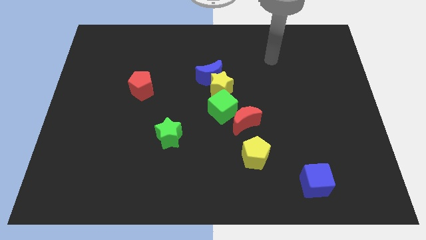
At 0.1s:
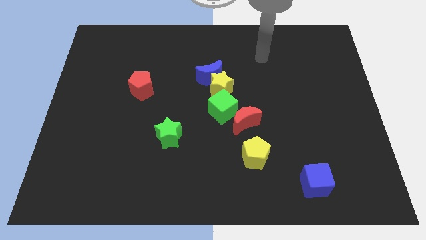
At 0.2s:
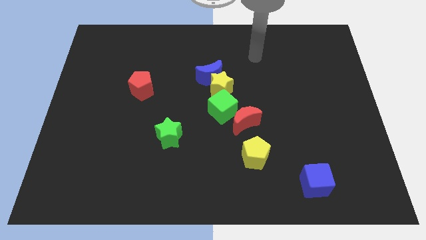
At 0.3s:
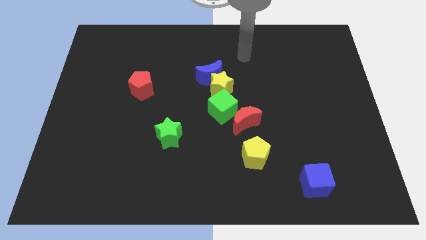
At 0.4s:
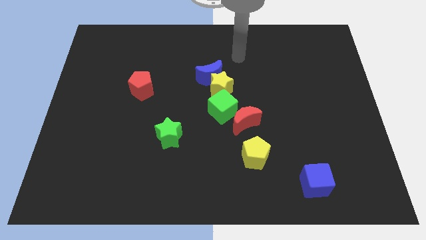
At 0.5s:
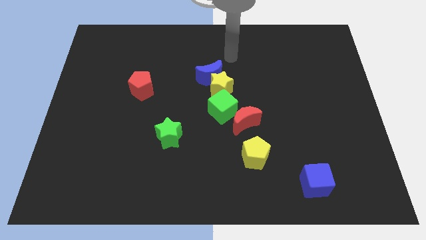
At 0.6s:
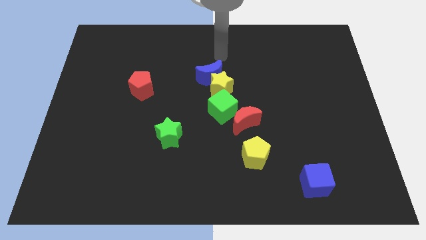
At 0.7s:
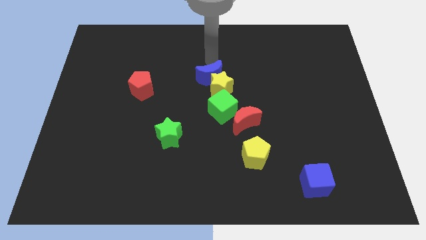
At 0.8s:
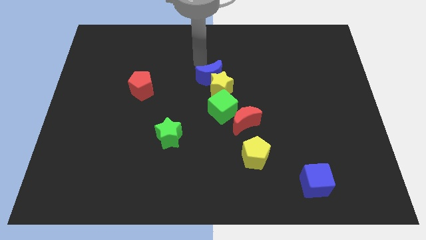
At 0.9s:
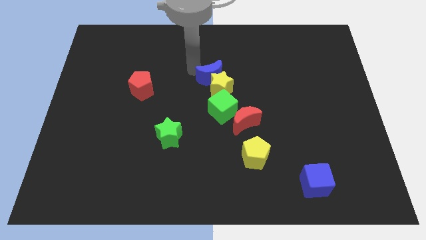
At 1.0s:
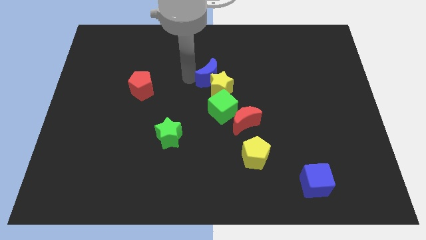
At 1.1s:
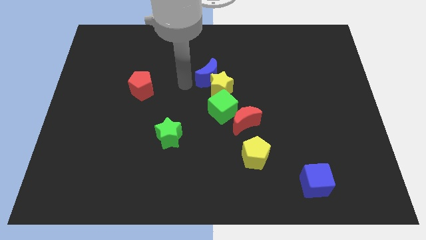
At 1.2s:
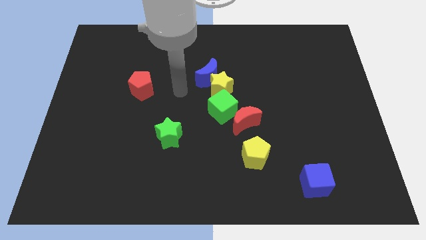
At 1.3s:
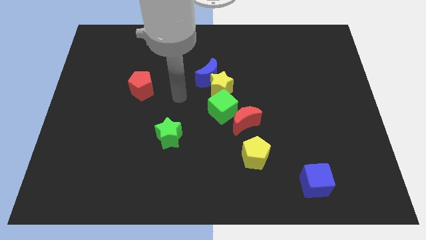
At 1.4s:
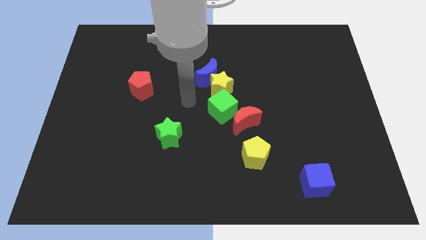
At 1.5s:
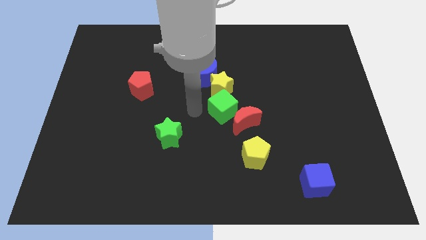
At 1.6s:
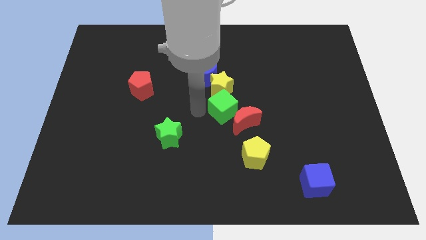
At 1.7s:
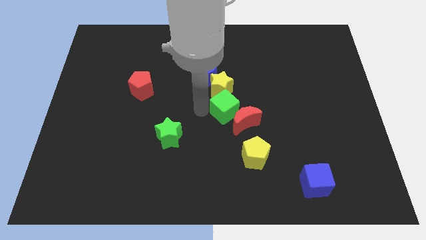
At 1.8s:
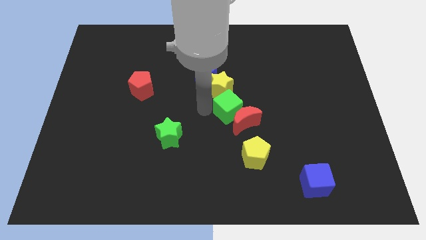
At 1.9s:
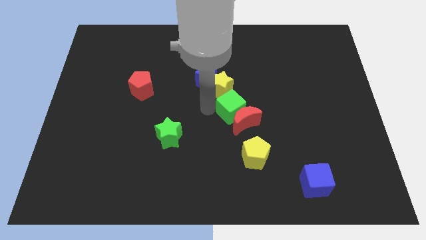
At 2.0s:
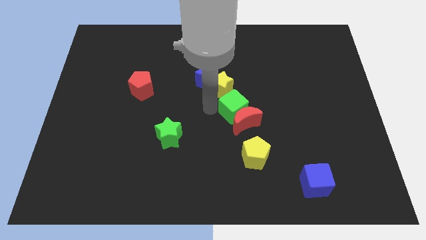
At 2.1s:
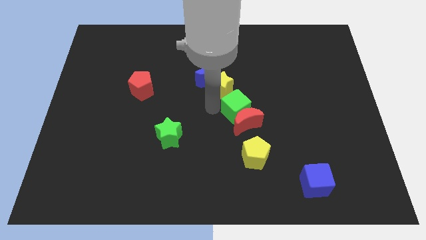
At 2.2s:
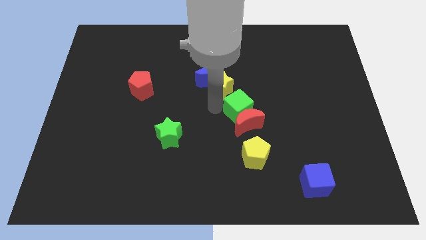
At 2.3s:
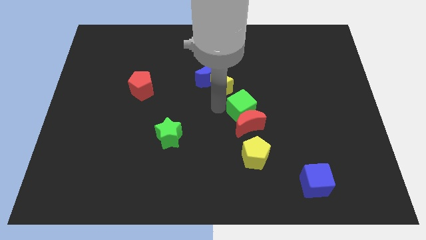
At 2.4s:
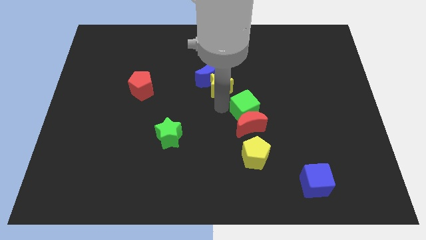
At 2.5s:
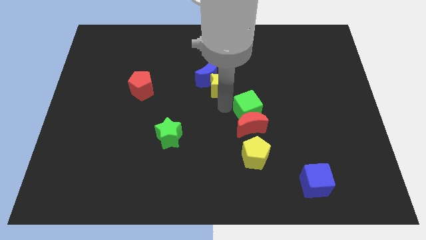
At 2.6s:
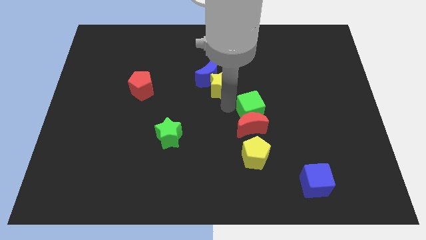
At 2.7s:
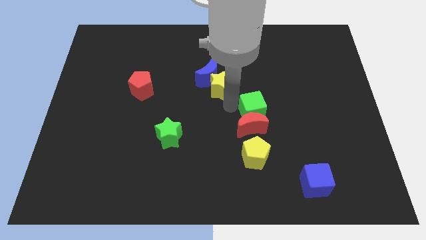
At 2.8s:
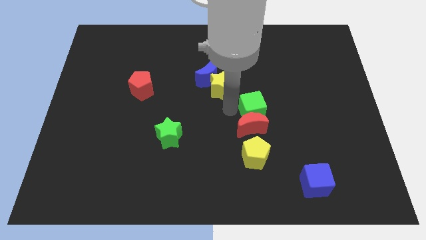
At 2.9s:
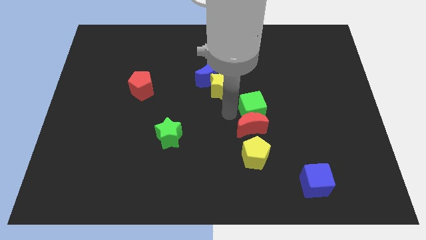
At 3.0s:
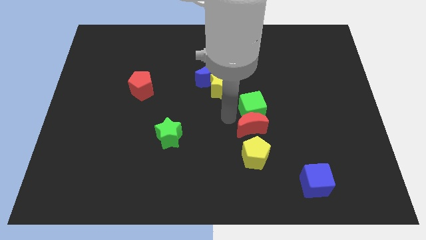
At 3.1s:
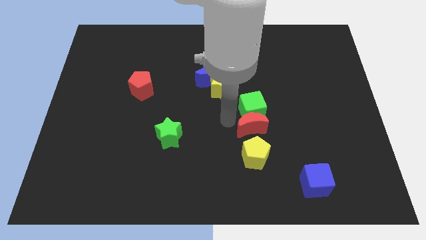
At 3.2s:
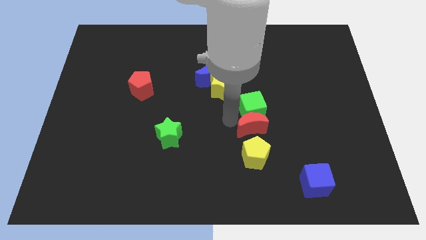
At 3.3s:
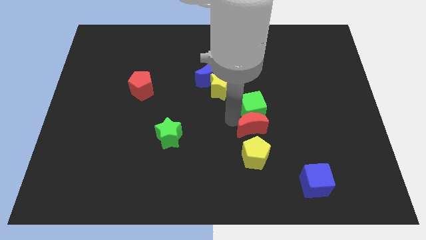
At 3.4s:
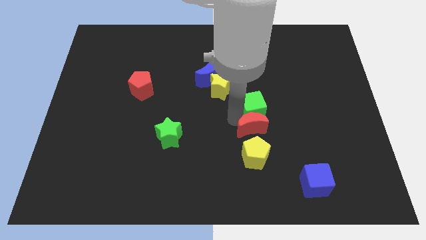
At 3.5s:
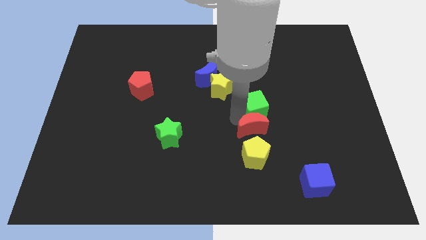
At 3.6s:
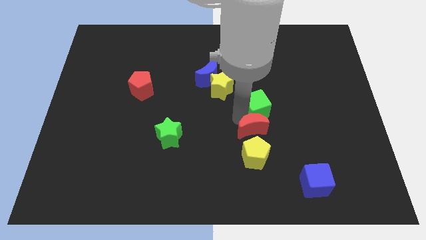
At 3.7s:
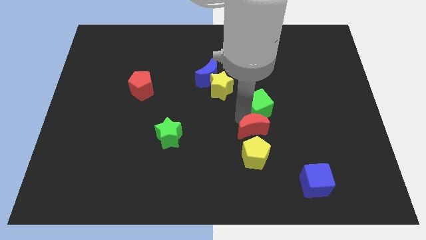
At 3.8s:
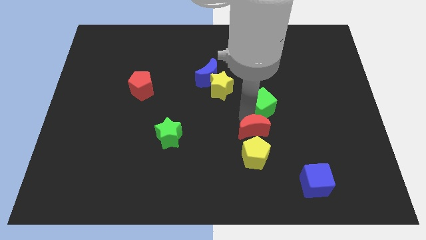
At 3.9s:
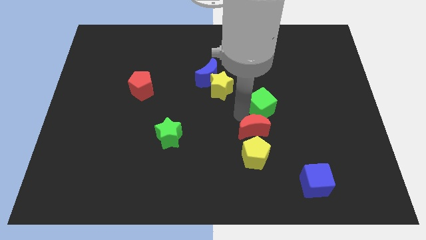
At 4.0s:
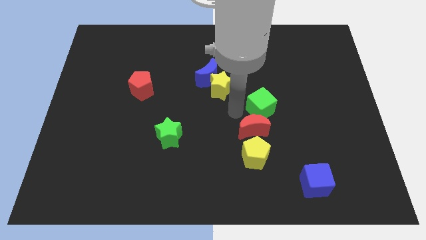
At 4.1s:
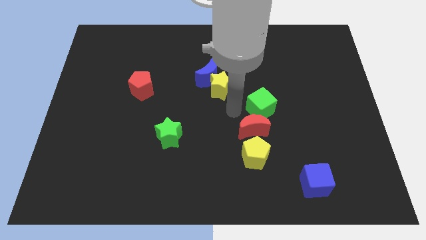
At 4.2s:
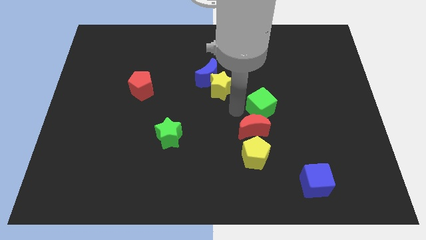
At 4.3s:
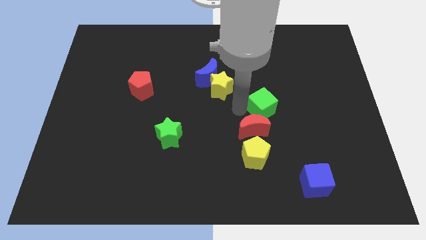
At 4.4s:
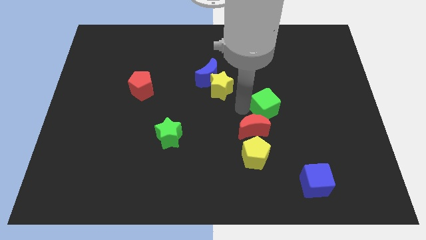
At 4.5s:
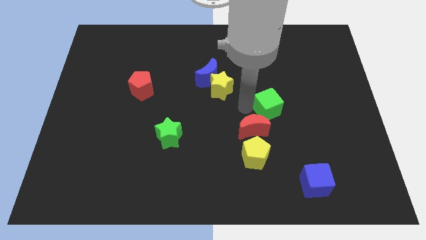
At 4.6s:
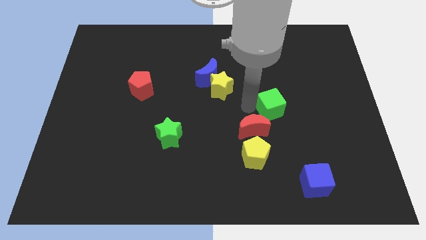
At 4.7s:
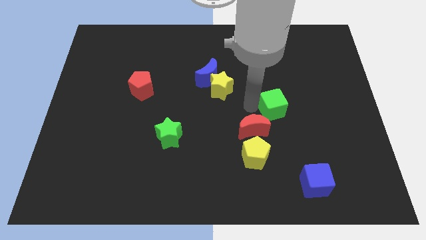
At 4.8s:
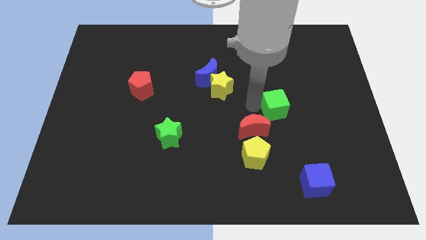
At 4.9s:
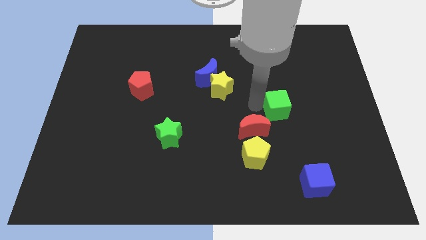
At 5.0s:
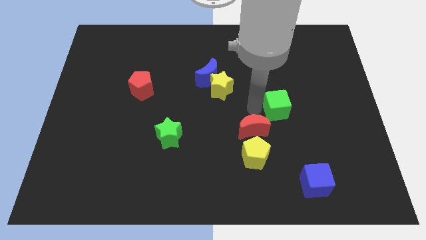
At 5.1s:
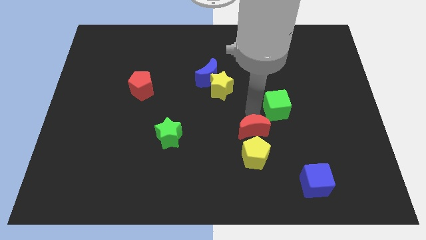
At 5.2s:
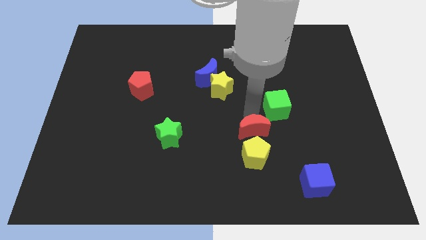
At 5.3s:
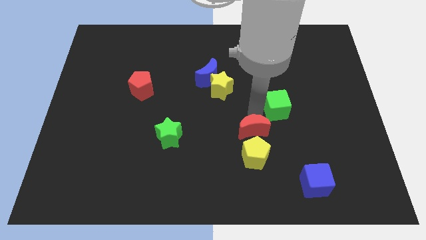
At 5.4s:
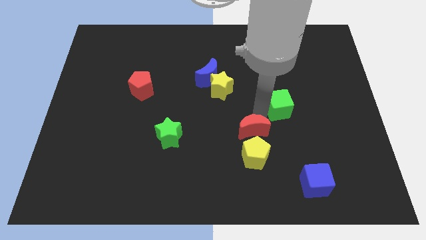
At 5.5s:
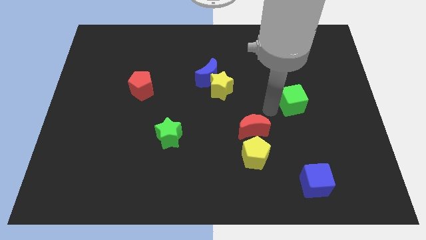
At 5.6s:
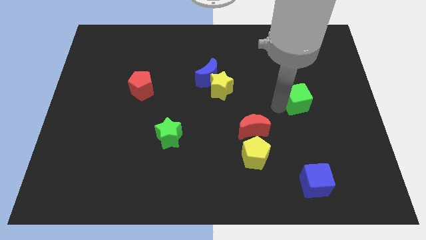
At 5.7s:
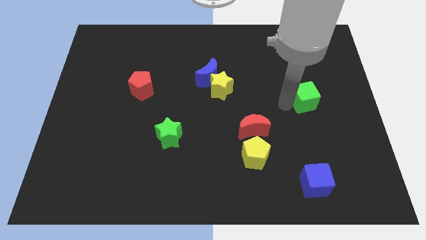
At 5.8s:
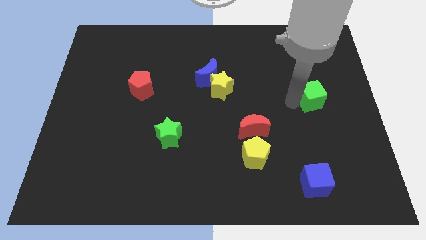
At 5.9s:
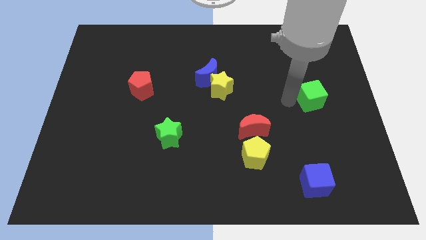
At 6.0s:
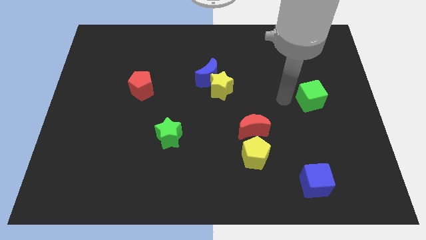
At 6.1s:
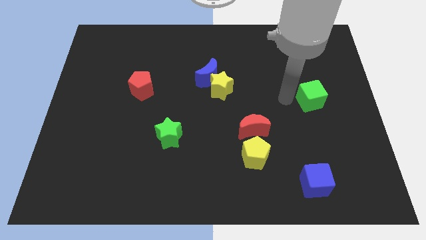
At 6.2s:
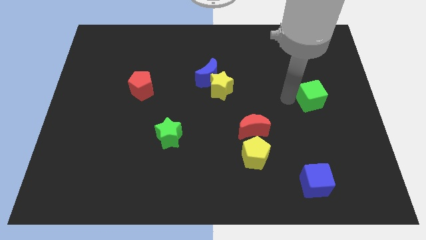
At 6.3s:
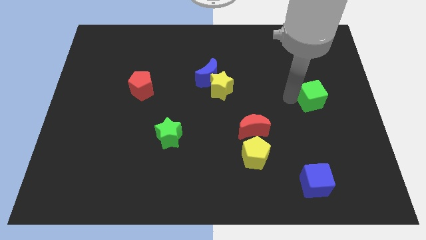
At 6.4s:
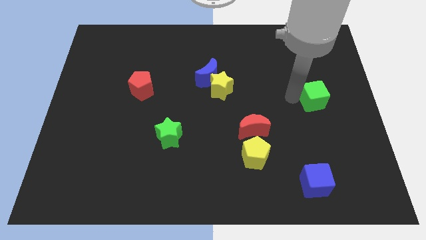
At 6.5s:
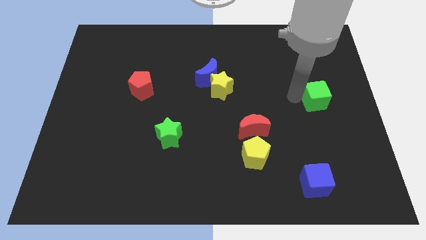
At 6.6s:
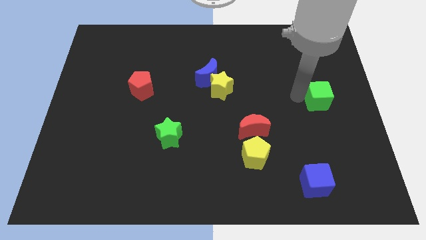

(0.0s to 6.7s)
slide the green cube to the right side of the board
